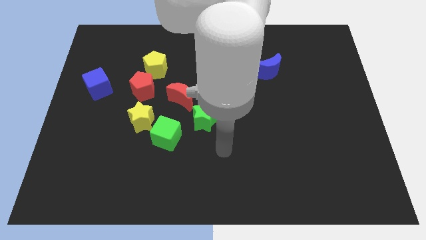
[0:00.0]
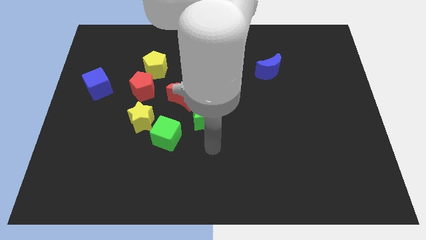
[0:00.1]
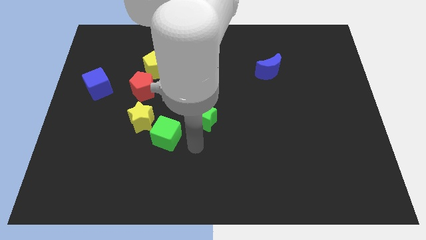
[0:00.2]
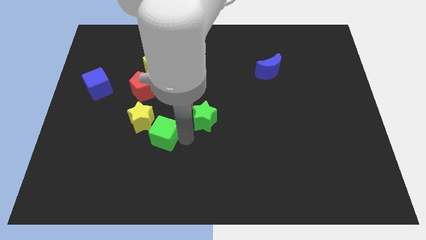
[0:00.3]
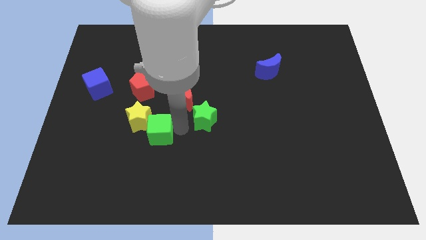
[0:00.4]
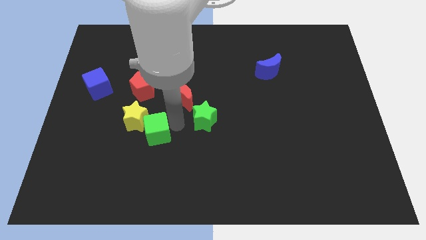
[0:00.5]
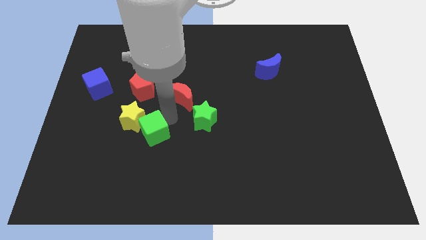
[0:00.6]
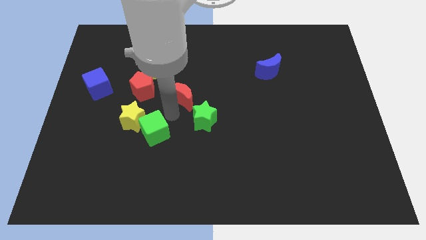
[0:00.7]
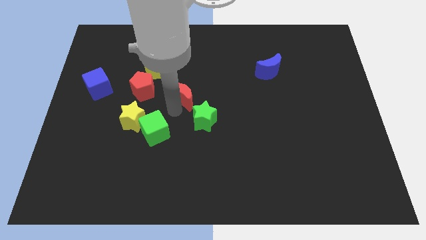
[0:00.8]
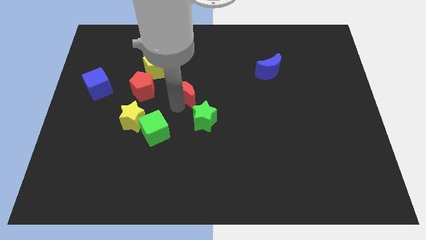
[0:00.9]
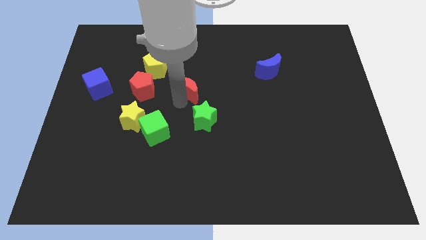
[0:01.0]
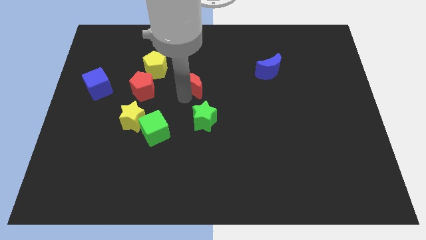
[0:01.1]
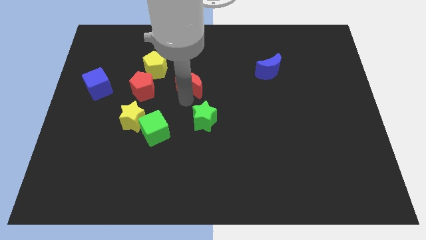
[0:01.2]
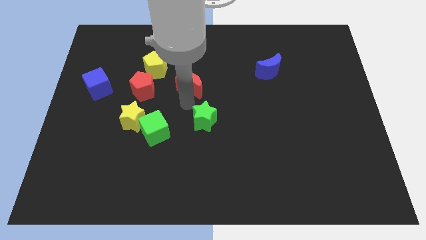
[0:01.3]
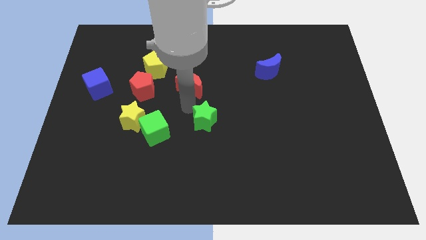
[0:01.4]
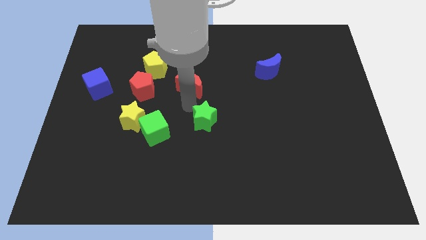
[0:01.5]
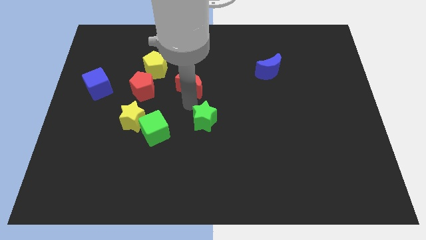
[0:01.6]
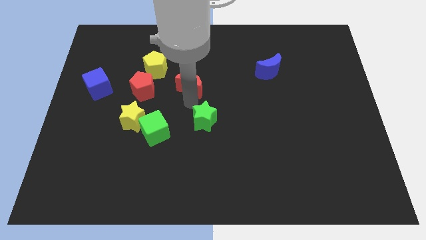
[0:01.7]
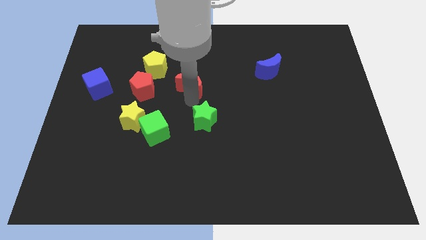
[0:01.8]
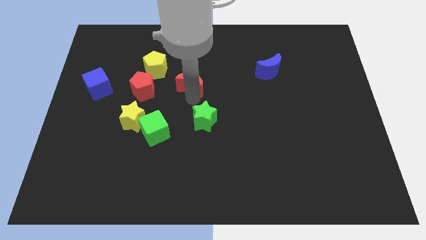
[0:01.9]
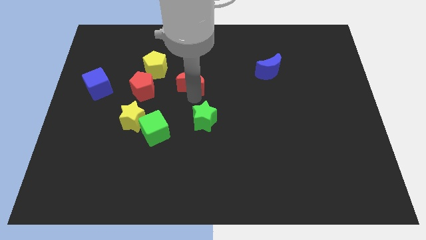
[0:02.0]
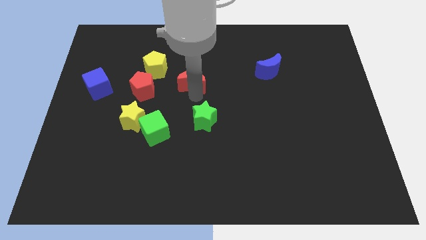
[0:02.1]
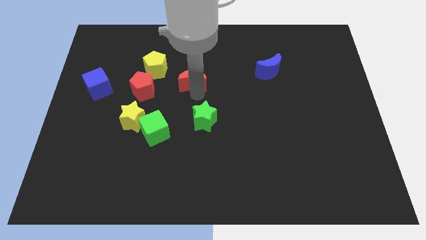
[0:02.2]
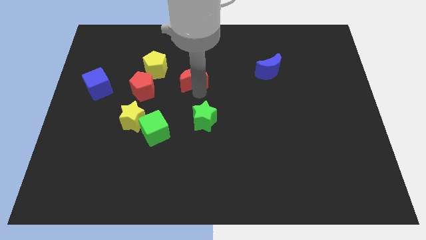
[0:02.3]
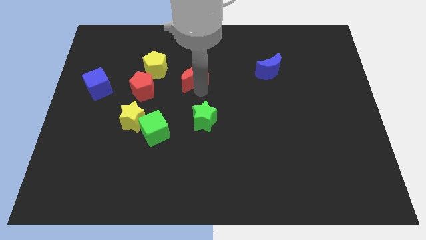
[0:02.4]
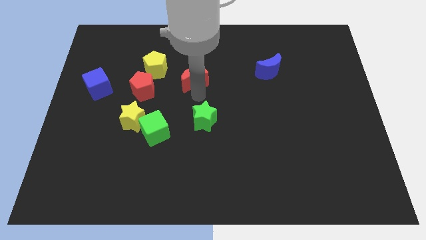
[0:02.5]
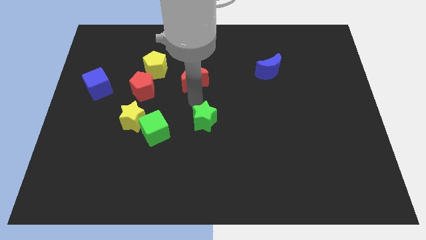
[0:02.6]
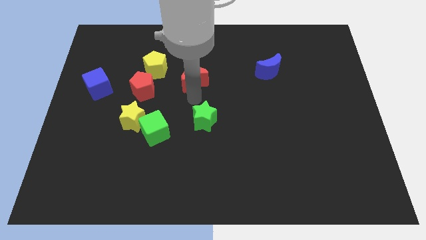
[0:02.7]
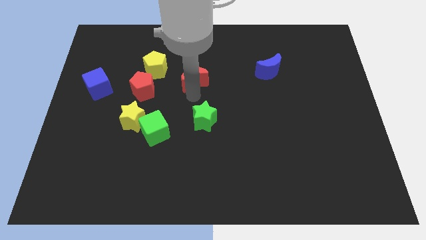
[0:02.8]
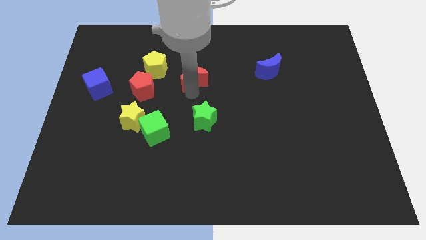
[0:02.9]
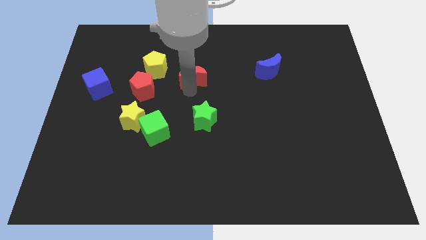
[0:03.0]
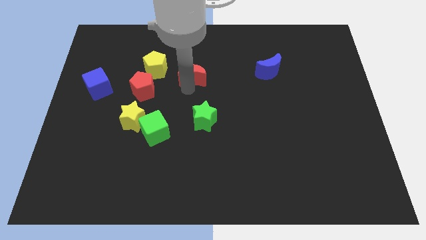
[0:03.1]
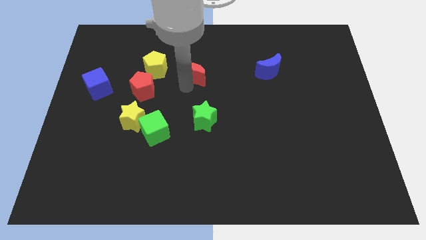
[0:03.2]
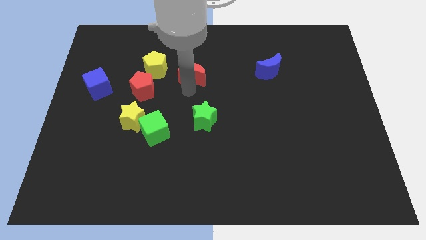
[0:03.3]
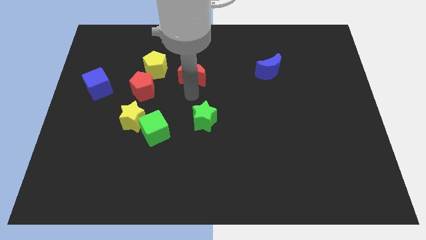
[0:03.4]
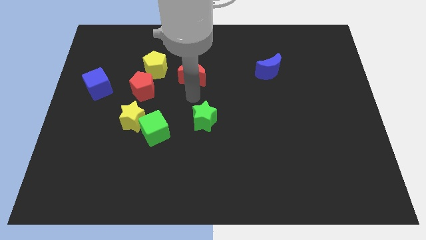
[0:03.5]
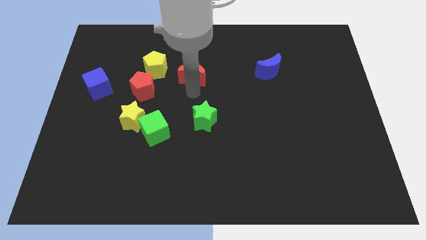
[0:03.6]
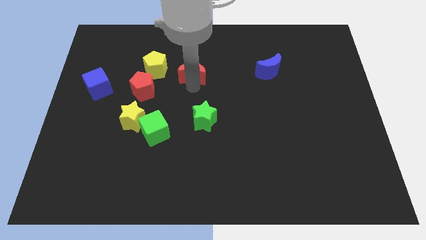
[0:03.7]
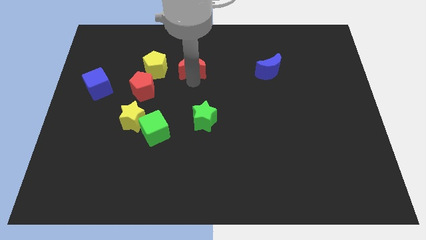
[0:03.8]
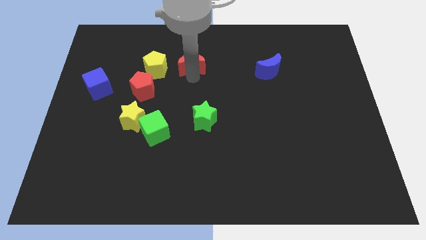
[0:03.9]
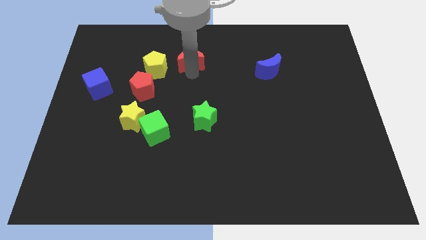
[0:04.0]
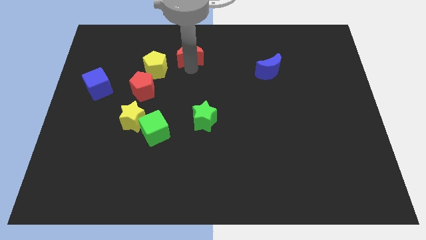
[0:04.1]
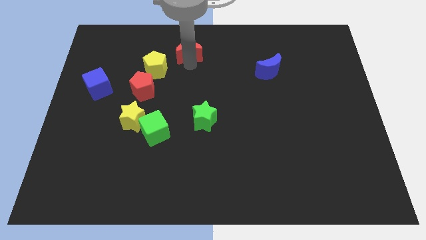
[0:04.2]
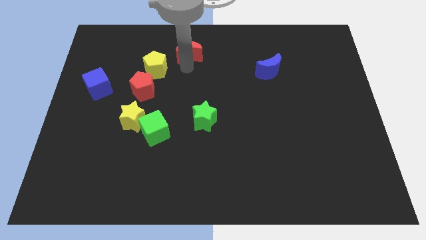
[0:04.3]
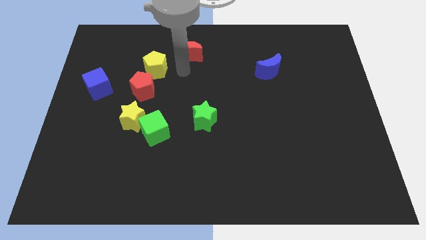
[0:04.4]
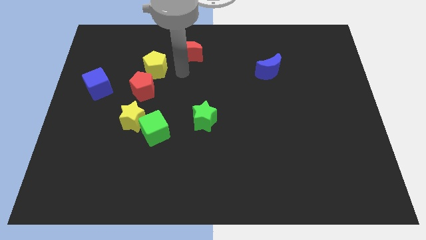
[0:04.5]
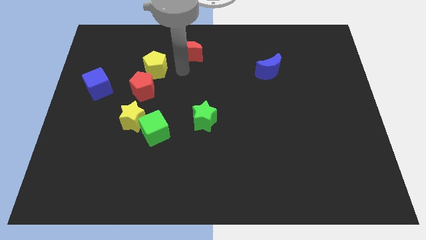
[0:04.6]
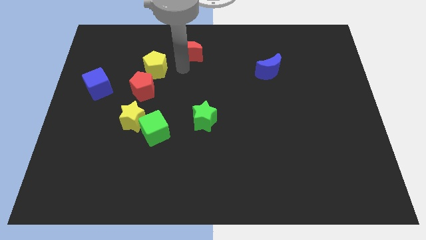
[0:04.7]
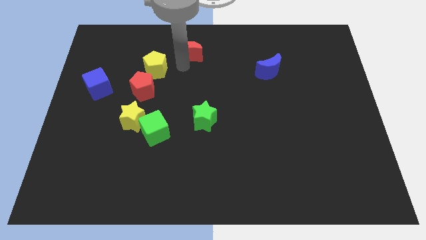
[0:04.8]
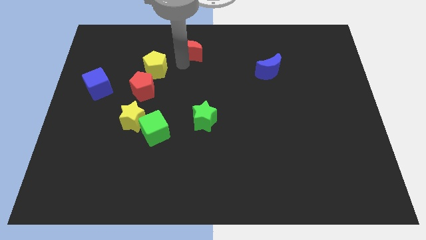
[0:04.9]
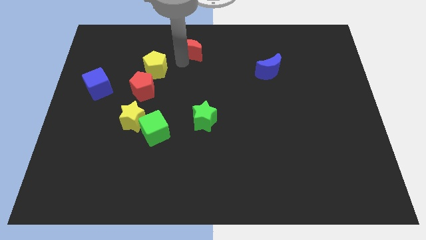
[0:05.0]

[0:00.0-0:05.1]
put the red moon to the towards your base

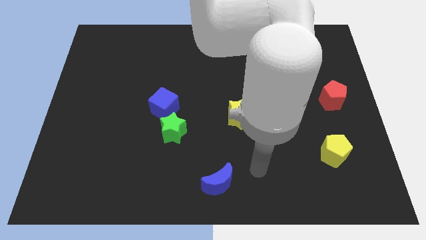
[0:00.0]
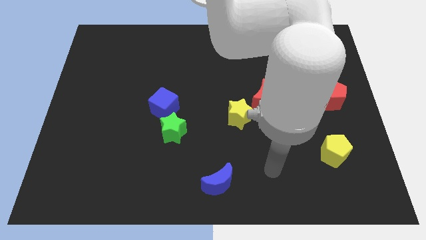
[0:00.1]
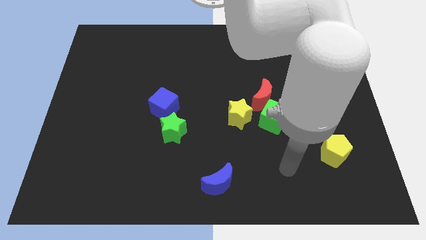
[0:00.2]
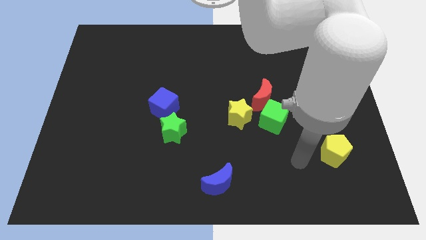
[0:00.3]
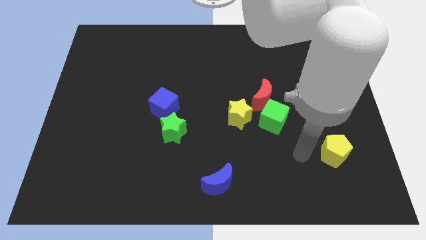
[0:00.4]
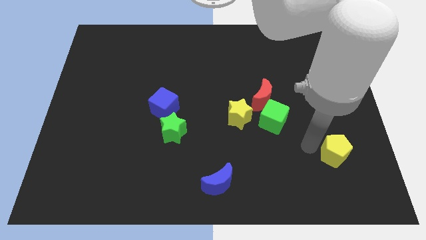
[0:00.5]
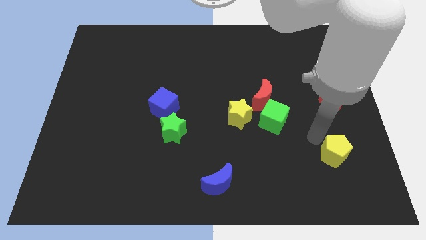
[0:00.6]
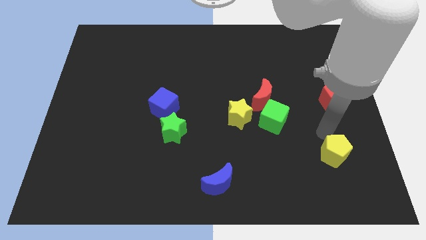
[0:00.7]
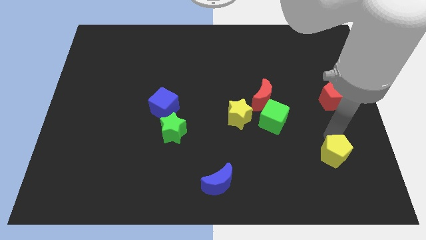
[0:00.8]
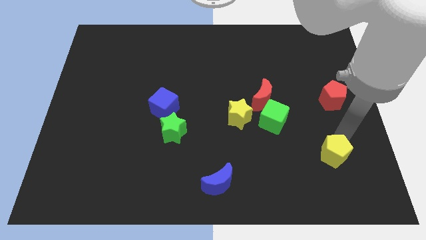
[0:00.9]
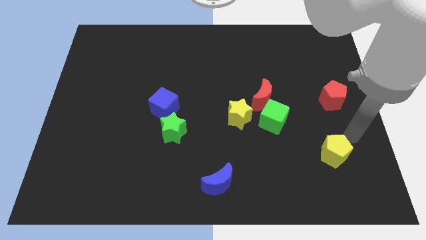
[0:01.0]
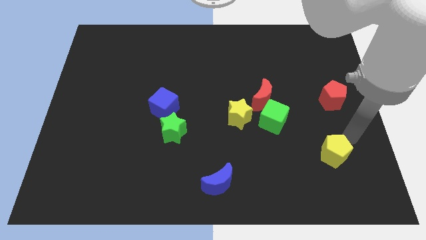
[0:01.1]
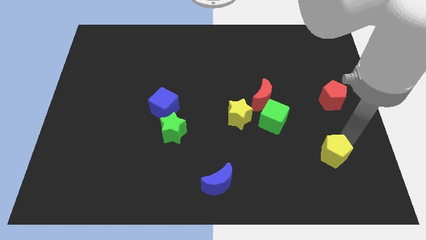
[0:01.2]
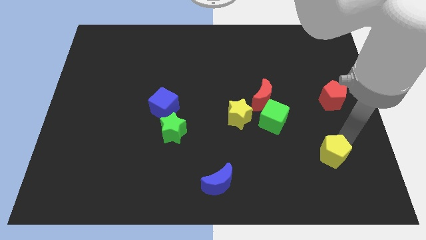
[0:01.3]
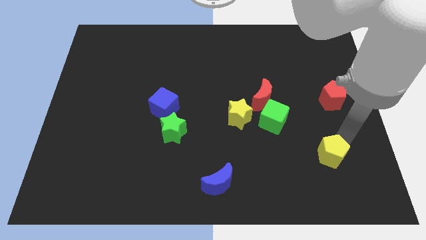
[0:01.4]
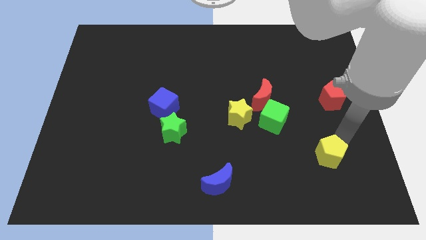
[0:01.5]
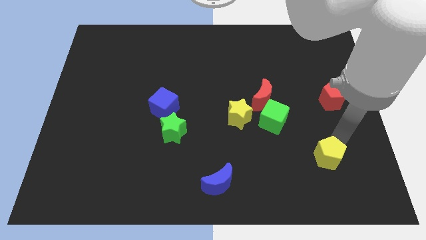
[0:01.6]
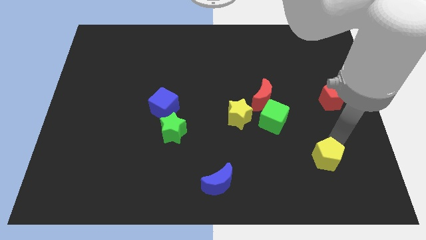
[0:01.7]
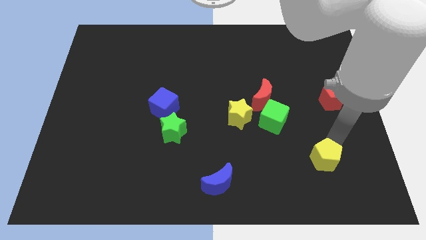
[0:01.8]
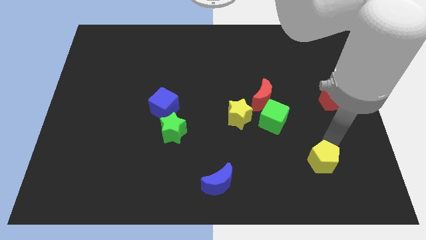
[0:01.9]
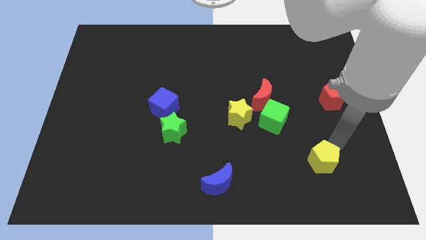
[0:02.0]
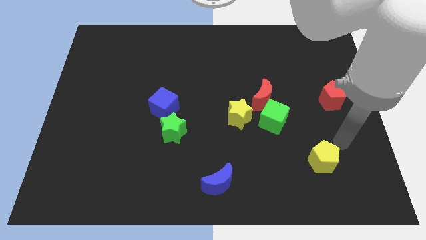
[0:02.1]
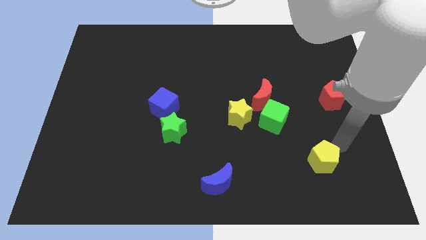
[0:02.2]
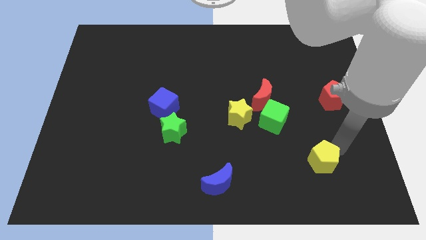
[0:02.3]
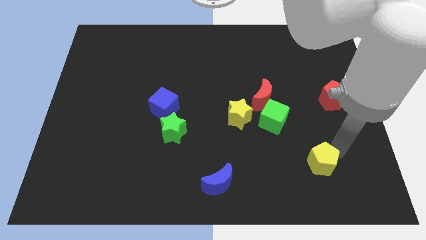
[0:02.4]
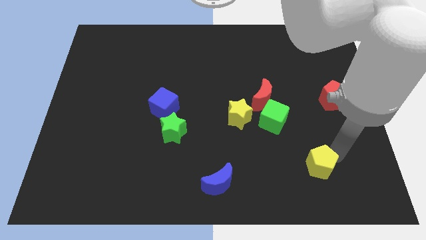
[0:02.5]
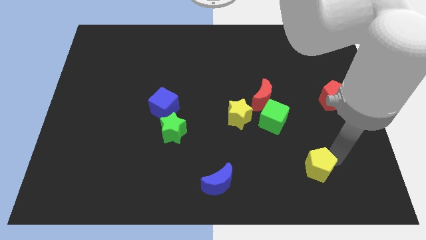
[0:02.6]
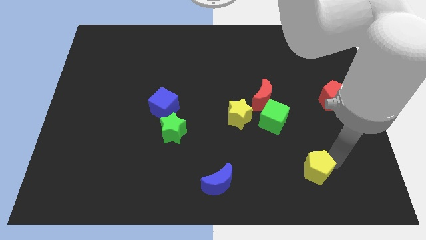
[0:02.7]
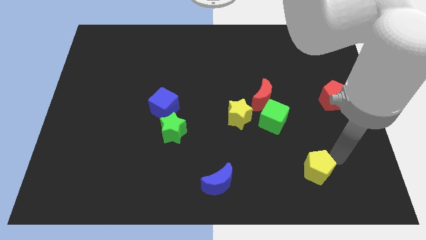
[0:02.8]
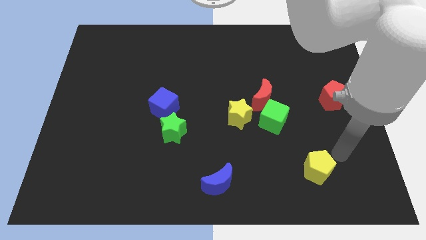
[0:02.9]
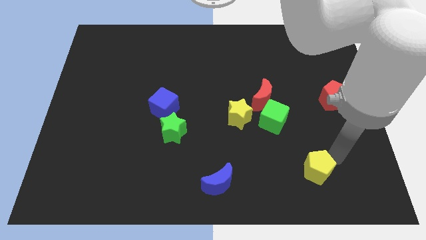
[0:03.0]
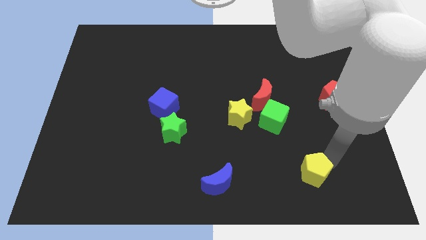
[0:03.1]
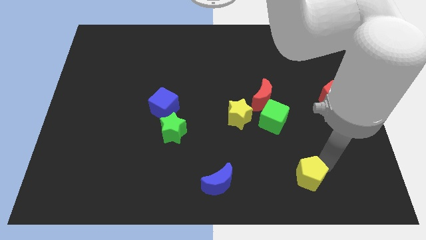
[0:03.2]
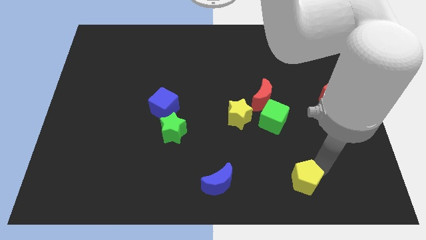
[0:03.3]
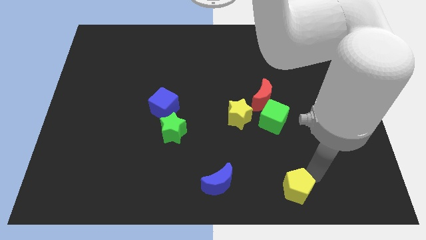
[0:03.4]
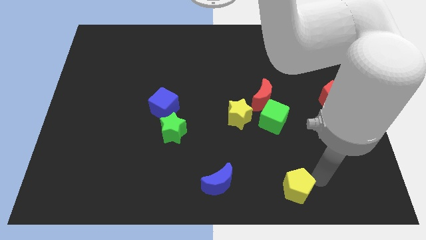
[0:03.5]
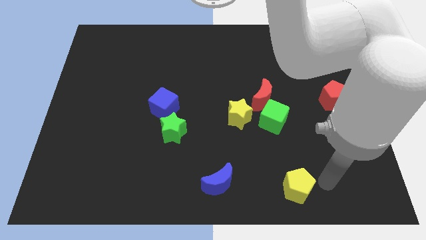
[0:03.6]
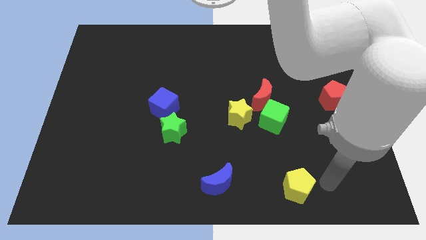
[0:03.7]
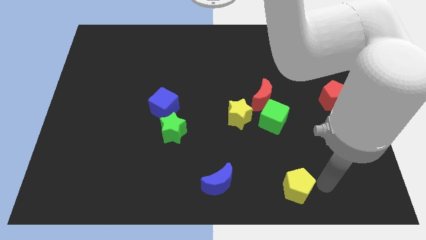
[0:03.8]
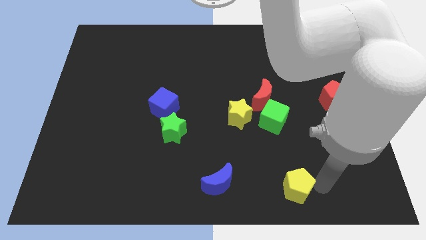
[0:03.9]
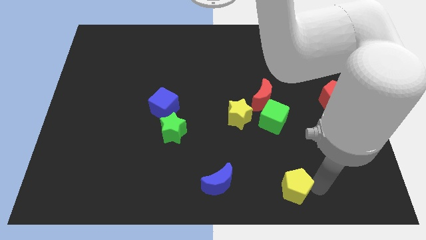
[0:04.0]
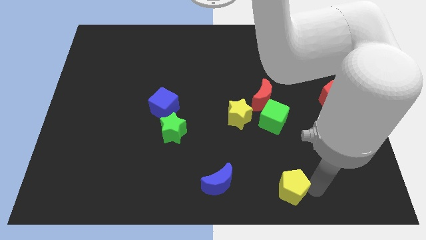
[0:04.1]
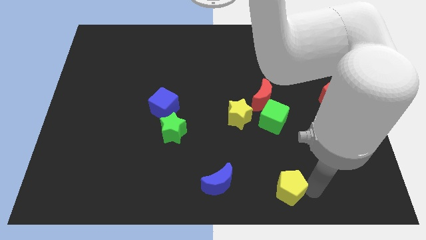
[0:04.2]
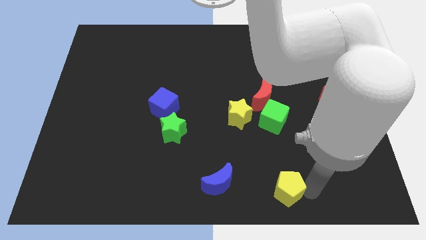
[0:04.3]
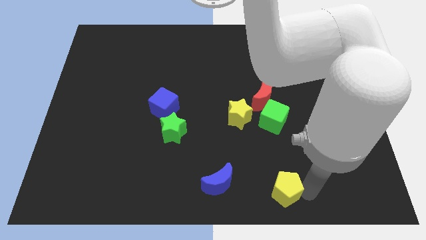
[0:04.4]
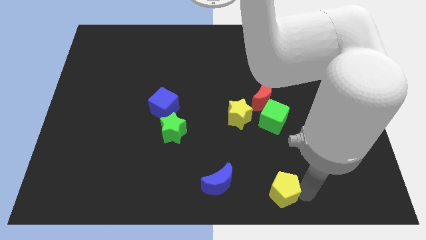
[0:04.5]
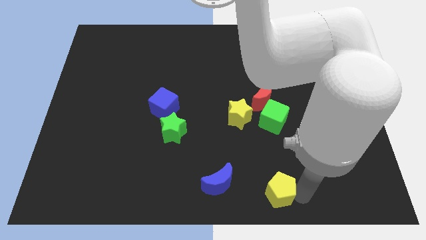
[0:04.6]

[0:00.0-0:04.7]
slide the yellow pentagon to the bottom side
